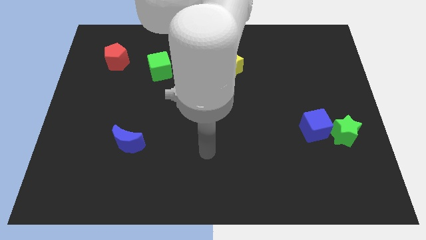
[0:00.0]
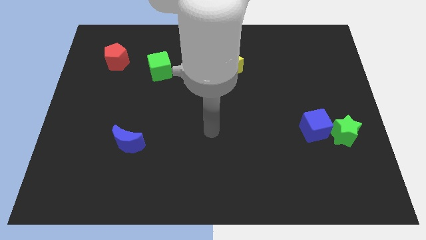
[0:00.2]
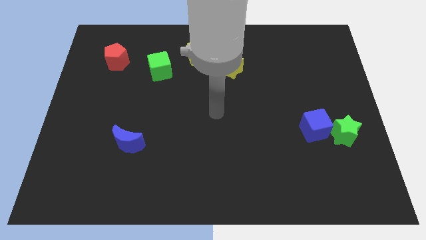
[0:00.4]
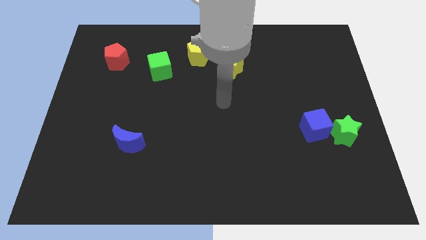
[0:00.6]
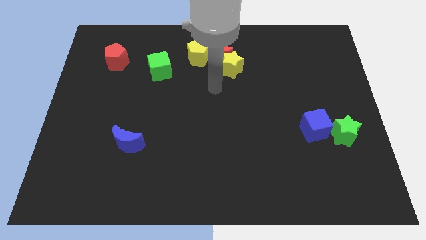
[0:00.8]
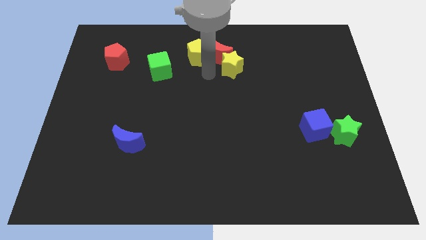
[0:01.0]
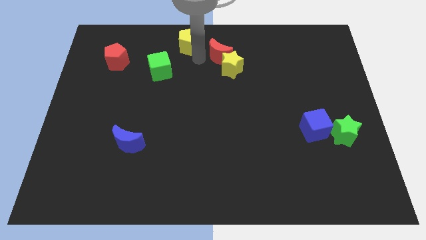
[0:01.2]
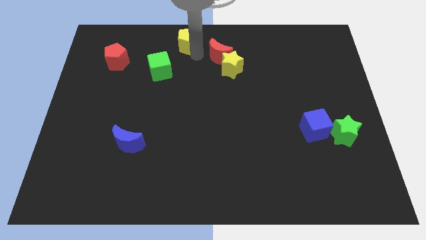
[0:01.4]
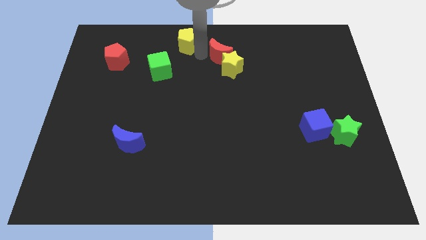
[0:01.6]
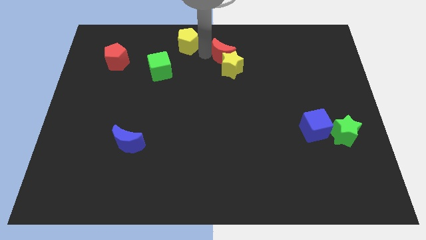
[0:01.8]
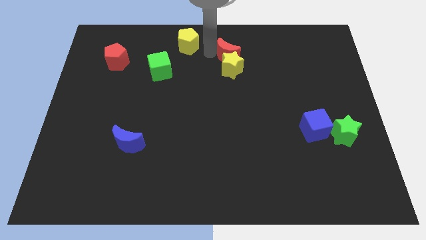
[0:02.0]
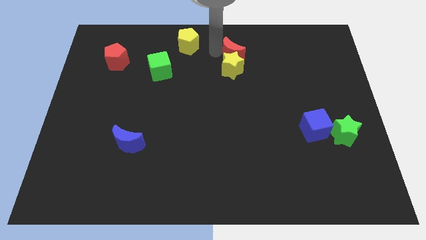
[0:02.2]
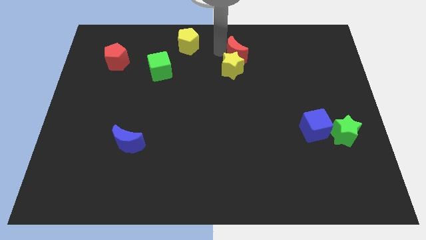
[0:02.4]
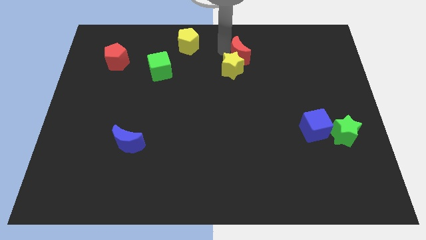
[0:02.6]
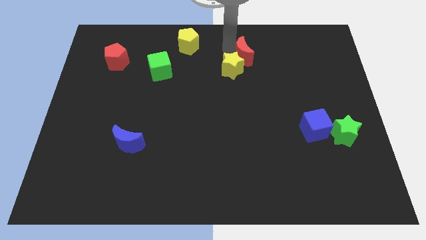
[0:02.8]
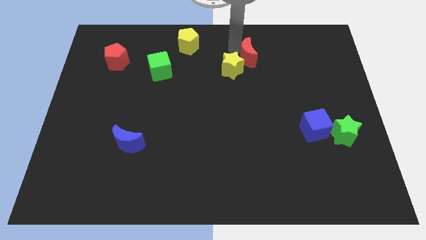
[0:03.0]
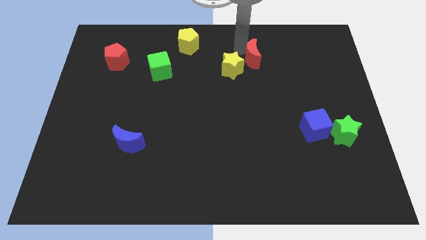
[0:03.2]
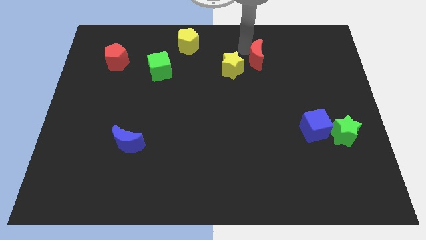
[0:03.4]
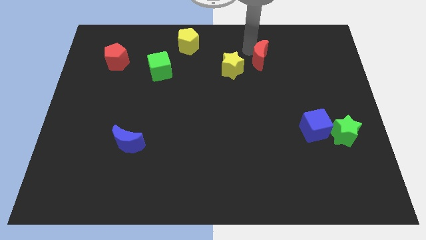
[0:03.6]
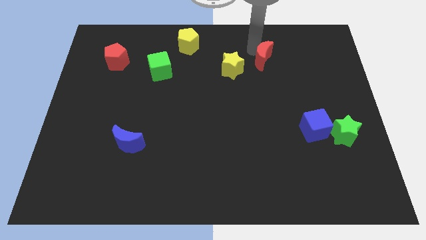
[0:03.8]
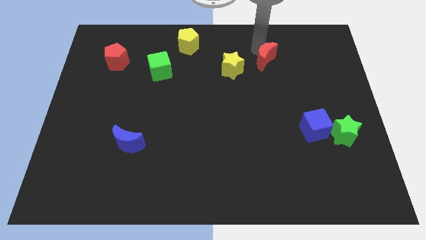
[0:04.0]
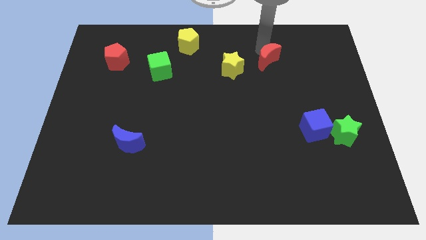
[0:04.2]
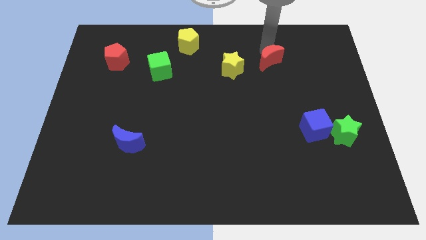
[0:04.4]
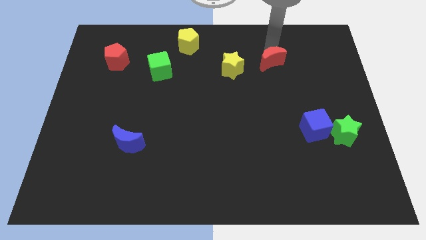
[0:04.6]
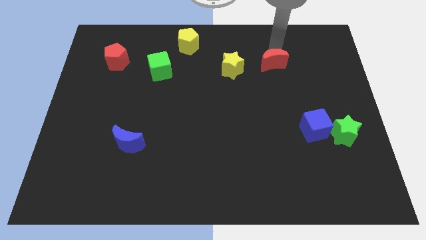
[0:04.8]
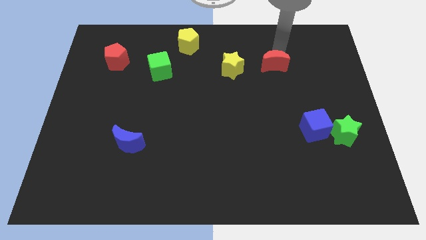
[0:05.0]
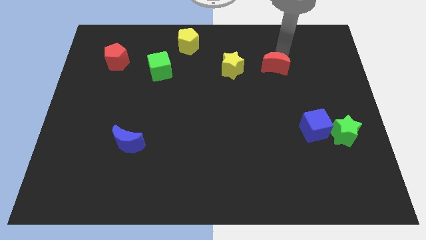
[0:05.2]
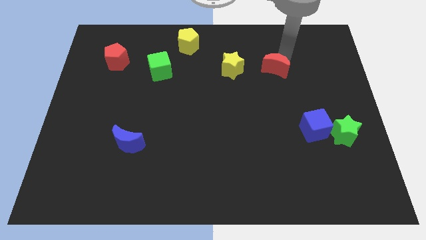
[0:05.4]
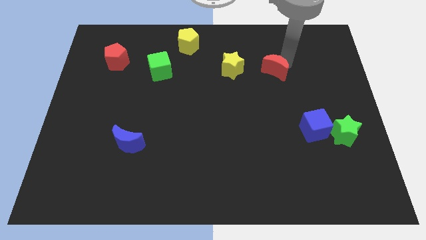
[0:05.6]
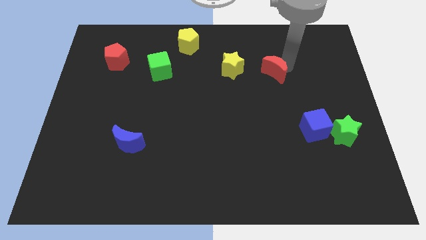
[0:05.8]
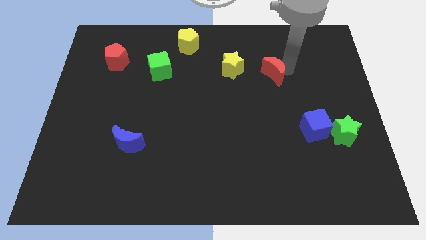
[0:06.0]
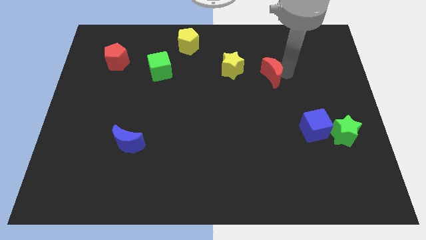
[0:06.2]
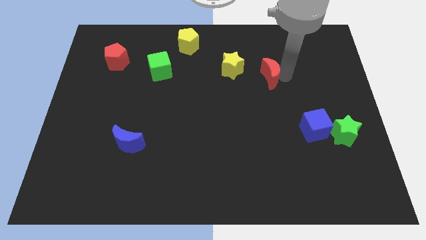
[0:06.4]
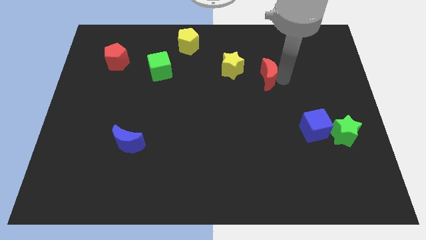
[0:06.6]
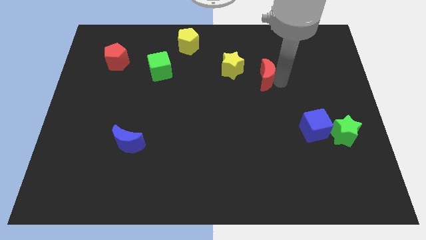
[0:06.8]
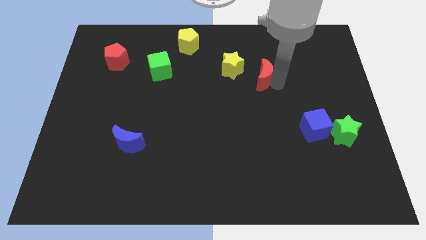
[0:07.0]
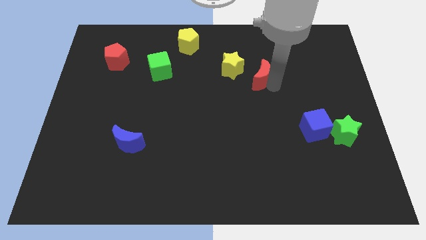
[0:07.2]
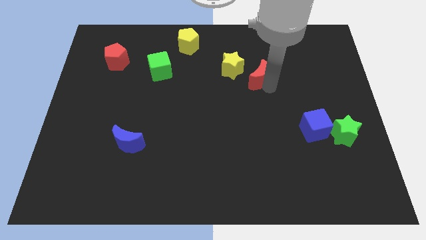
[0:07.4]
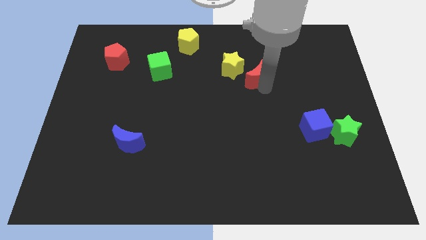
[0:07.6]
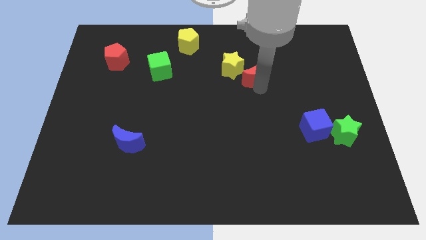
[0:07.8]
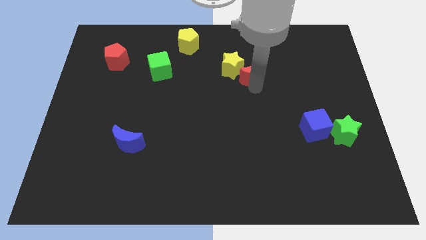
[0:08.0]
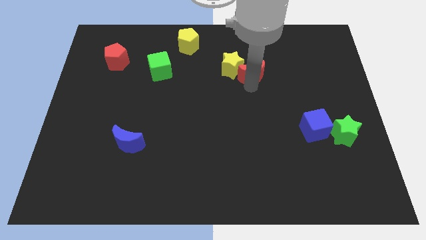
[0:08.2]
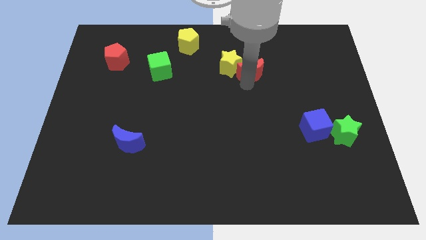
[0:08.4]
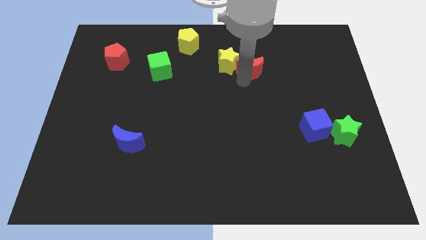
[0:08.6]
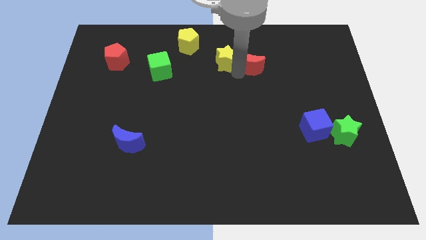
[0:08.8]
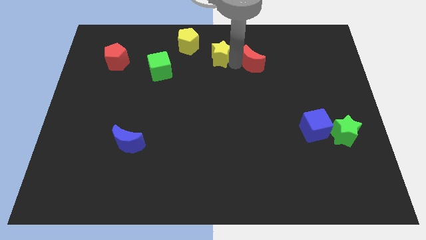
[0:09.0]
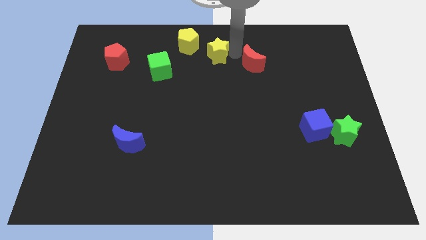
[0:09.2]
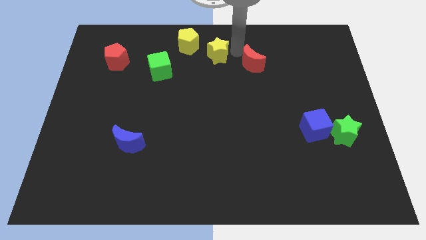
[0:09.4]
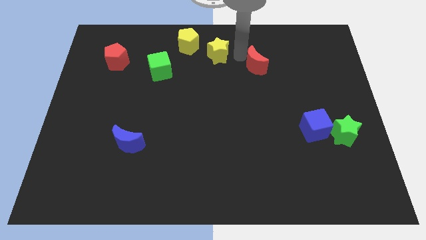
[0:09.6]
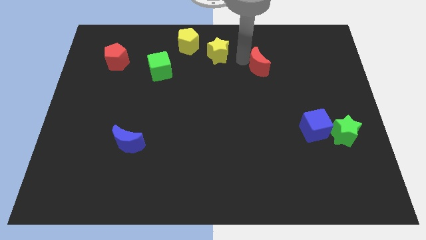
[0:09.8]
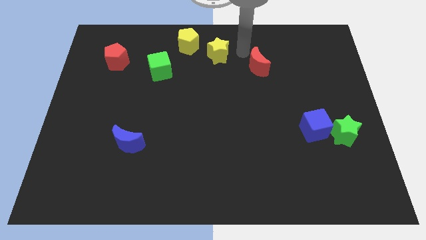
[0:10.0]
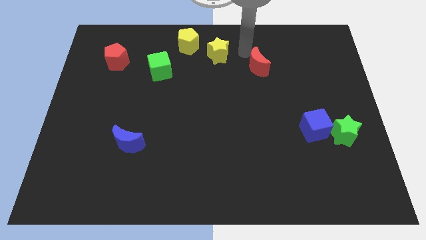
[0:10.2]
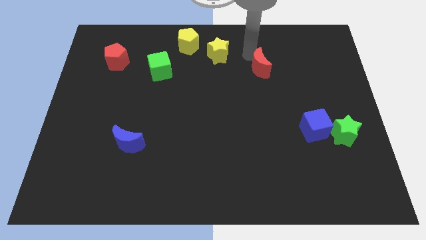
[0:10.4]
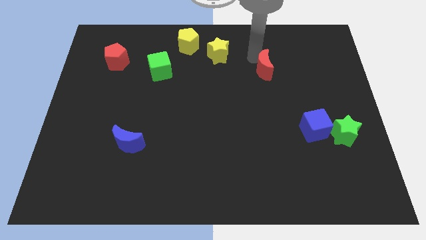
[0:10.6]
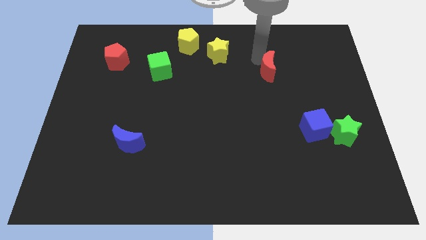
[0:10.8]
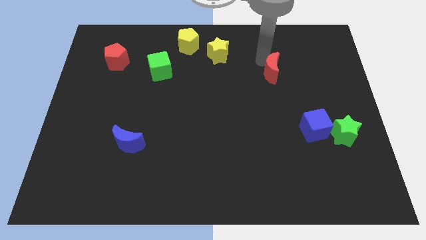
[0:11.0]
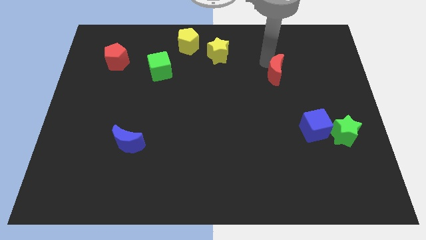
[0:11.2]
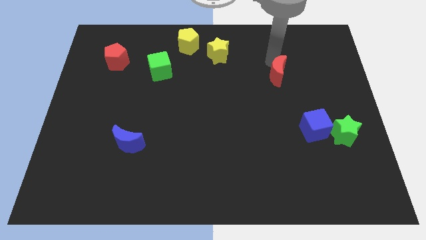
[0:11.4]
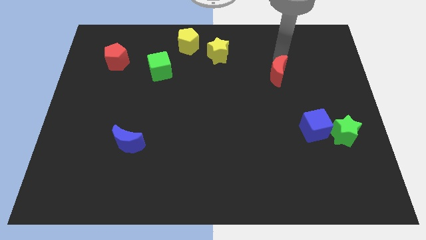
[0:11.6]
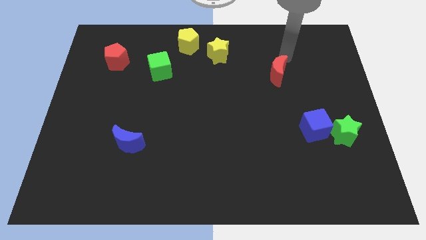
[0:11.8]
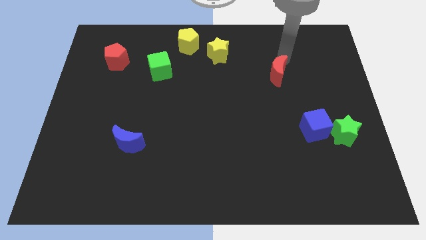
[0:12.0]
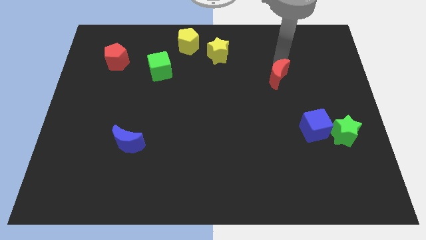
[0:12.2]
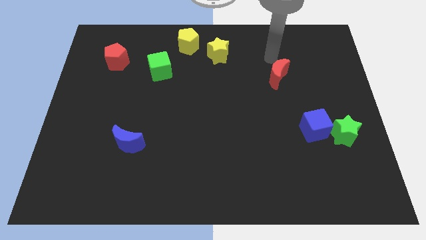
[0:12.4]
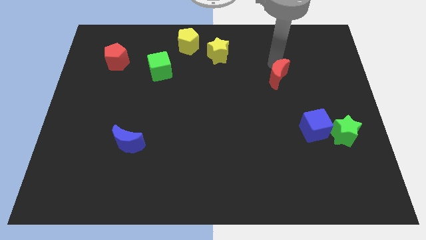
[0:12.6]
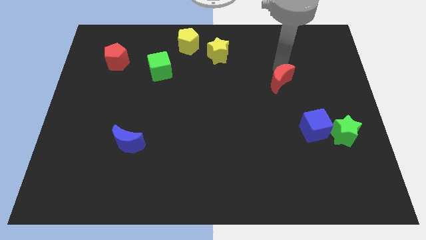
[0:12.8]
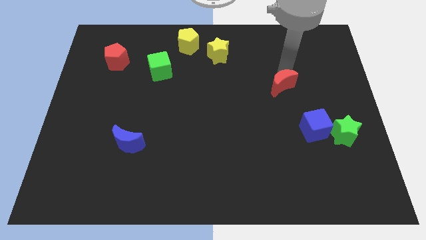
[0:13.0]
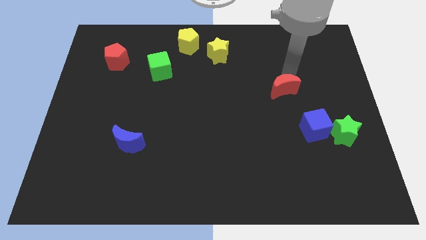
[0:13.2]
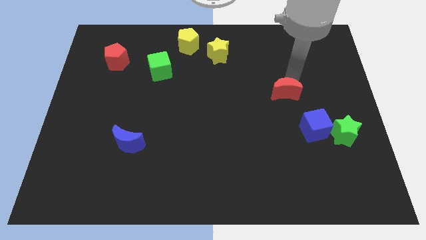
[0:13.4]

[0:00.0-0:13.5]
put the red moon diagonally up and to the left of the blue cube

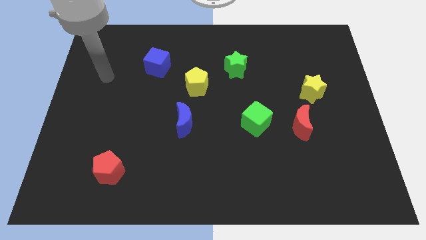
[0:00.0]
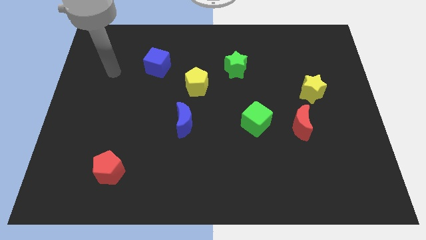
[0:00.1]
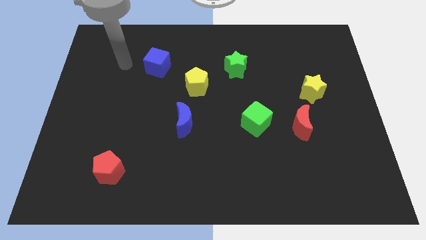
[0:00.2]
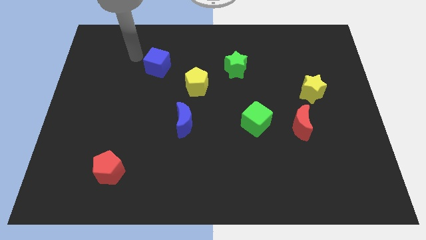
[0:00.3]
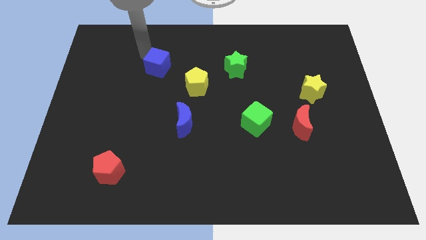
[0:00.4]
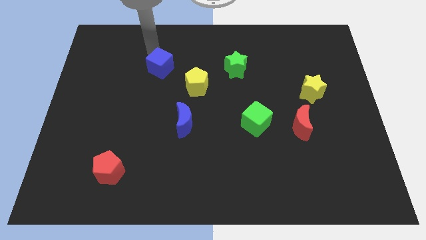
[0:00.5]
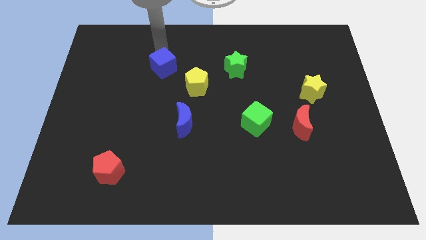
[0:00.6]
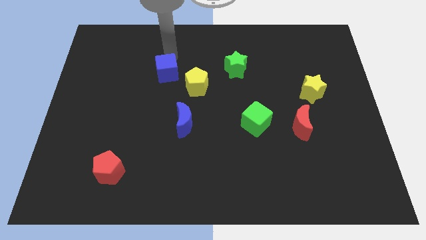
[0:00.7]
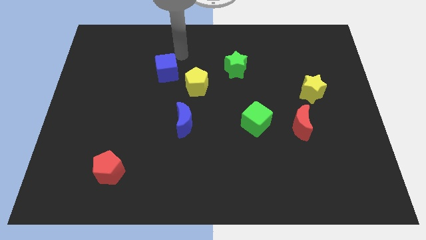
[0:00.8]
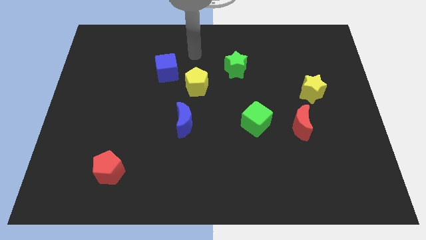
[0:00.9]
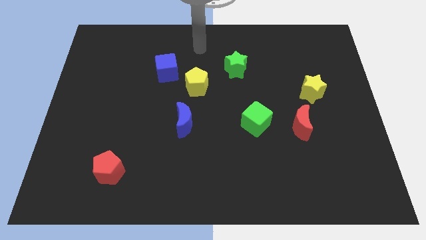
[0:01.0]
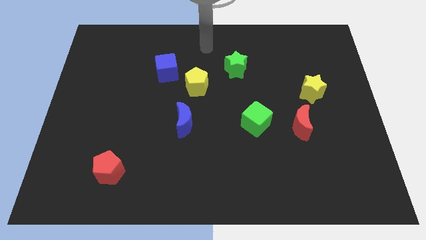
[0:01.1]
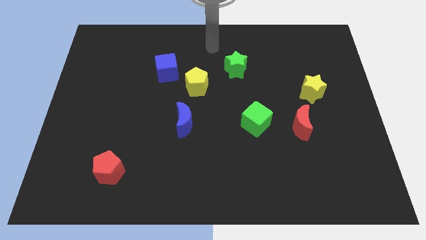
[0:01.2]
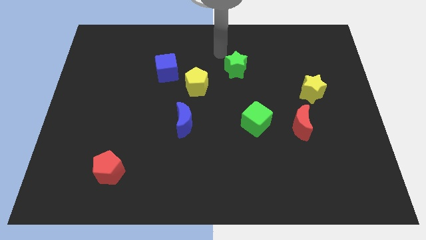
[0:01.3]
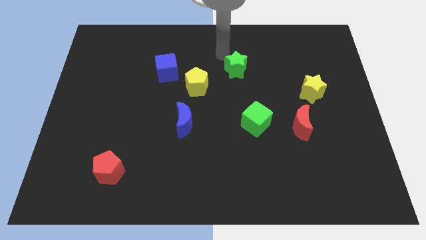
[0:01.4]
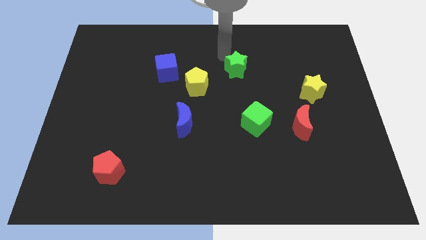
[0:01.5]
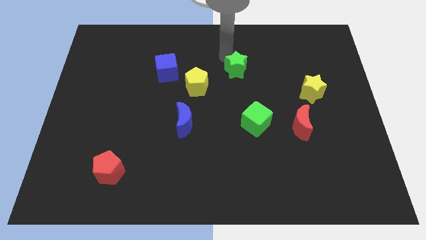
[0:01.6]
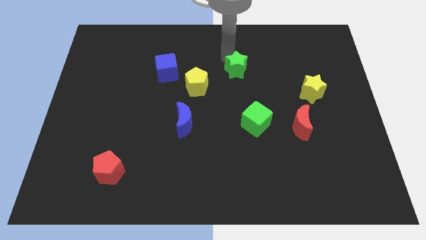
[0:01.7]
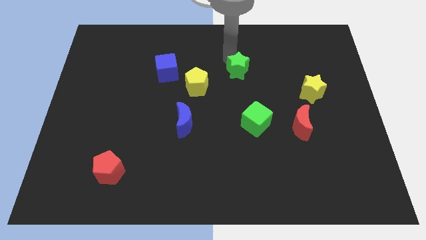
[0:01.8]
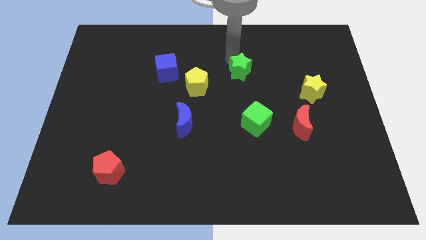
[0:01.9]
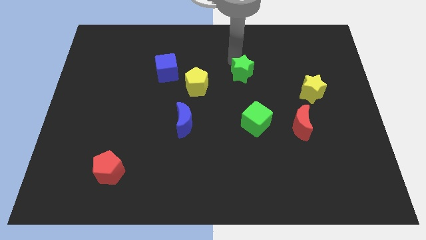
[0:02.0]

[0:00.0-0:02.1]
push the green star to the top of the green cube
